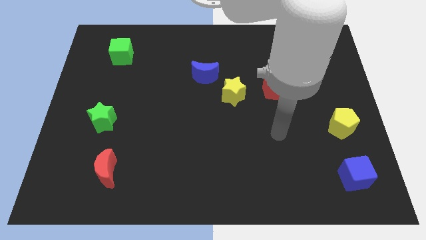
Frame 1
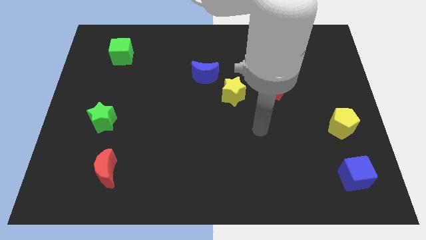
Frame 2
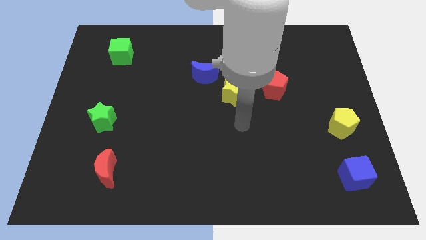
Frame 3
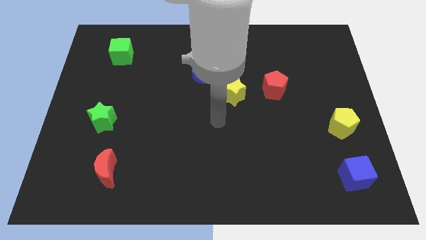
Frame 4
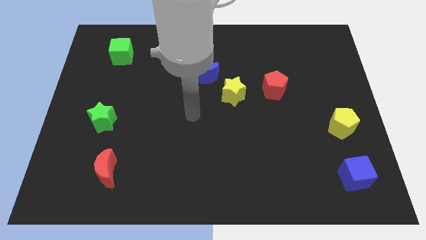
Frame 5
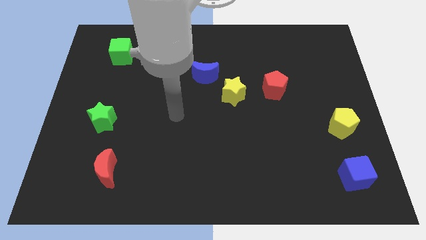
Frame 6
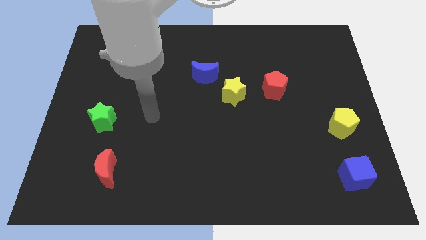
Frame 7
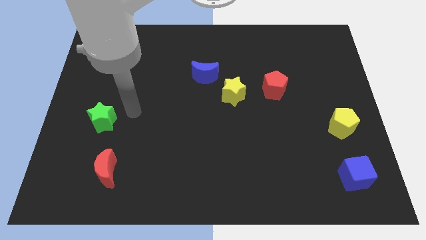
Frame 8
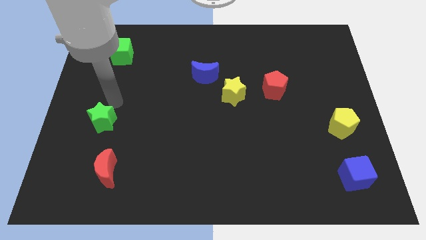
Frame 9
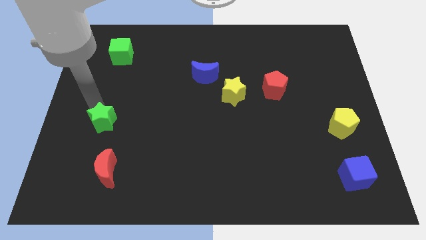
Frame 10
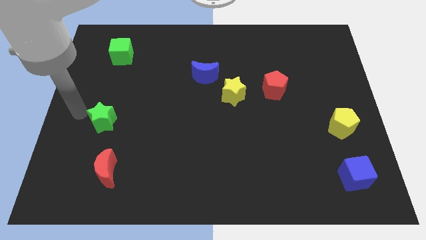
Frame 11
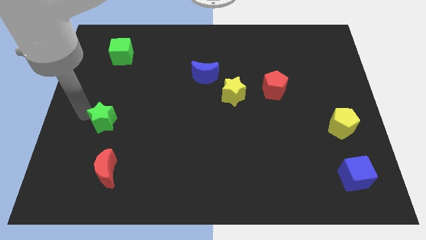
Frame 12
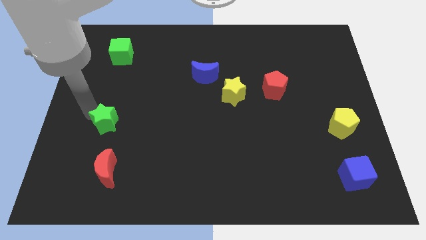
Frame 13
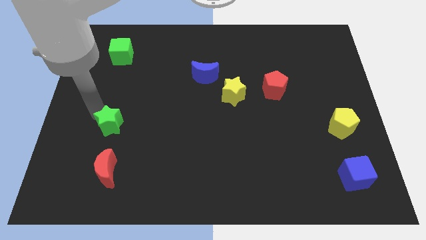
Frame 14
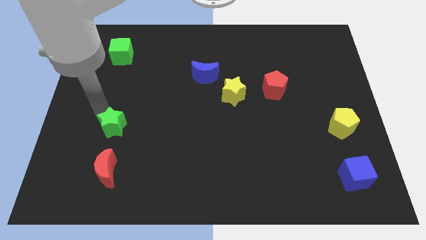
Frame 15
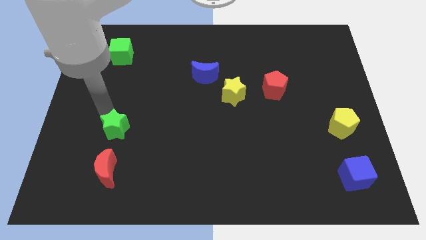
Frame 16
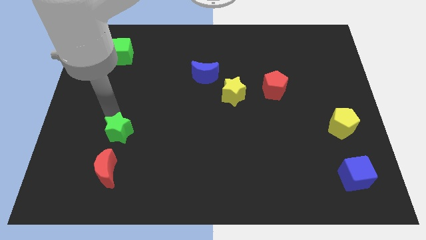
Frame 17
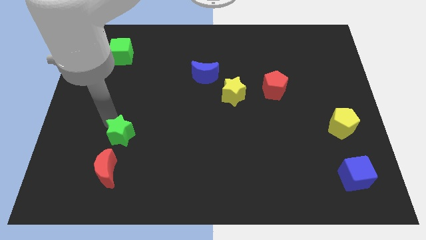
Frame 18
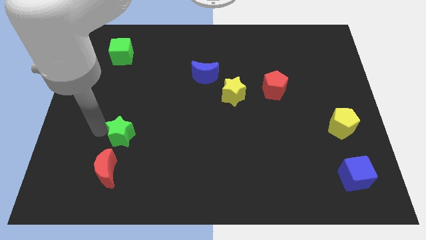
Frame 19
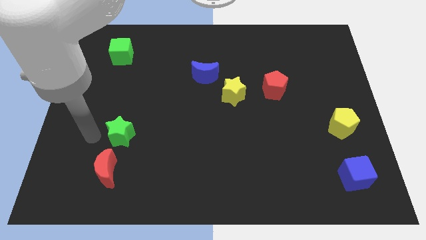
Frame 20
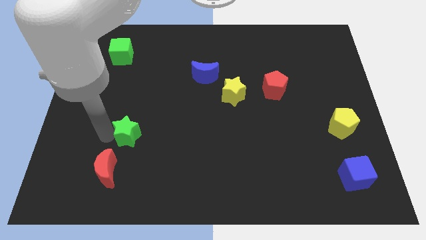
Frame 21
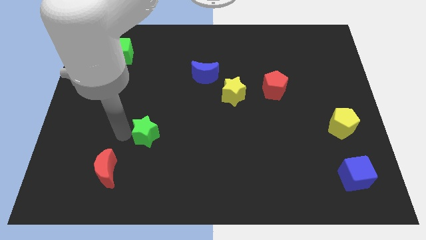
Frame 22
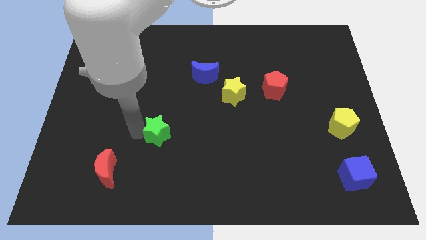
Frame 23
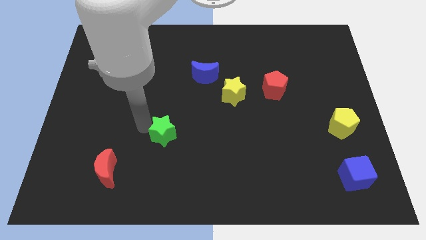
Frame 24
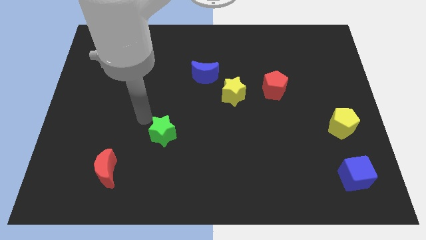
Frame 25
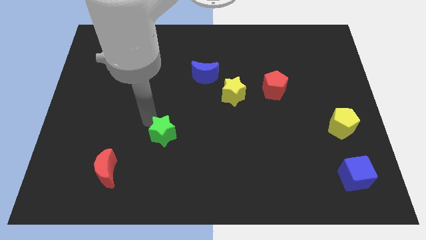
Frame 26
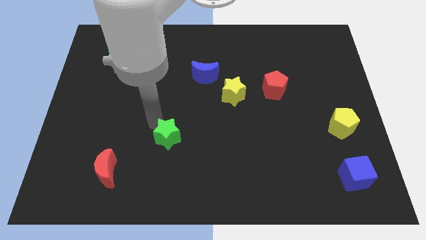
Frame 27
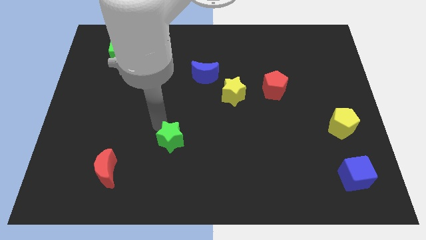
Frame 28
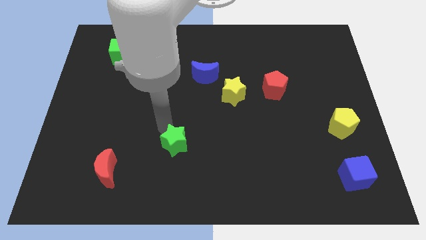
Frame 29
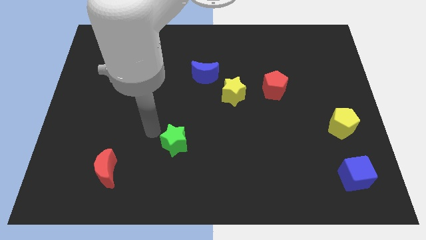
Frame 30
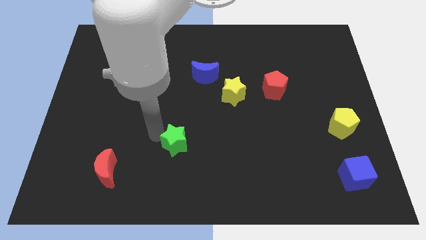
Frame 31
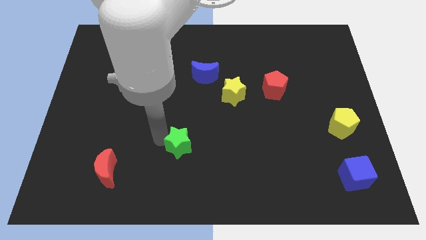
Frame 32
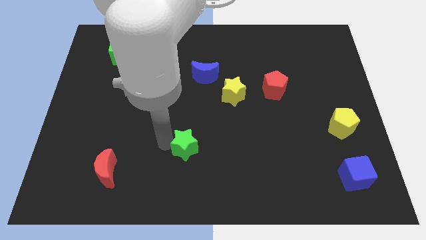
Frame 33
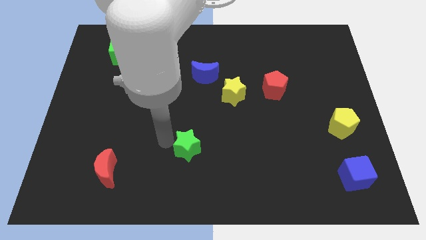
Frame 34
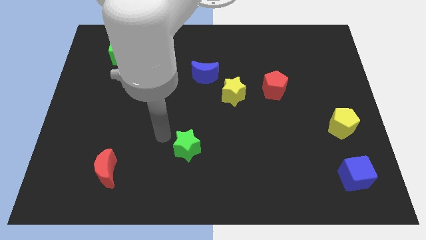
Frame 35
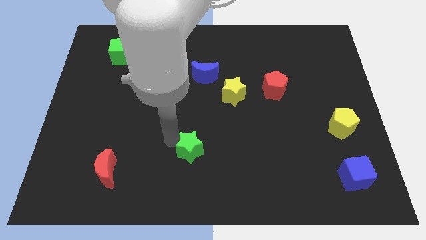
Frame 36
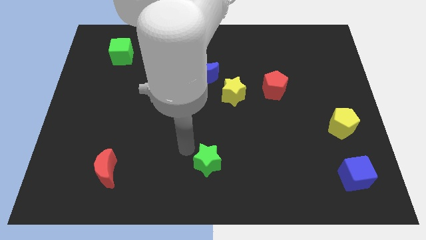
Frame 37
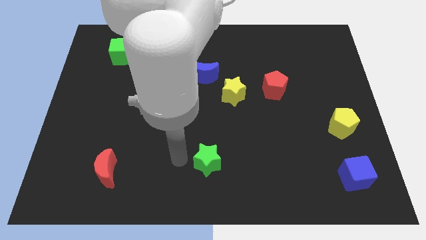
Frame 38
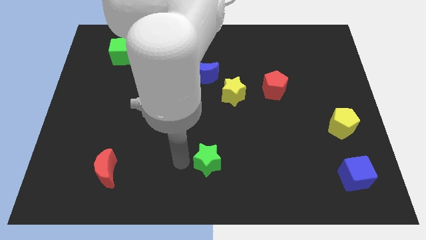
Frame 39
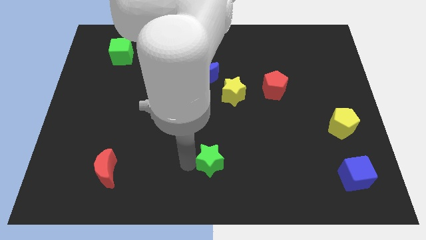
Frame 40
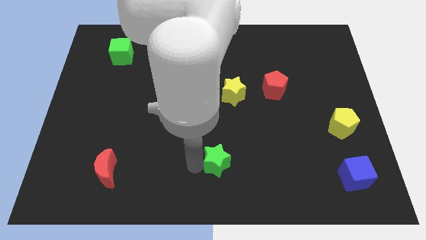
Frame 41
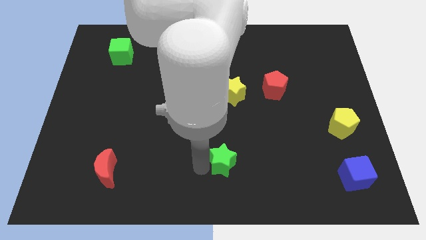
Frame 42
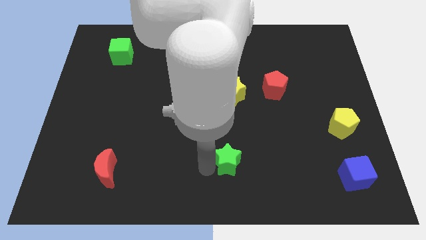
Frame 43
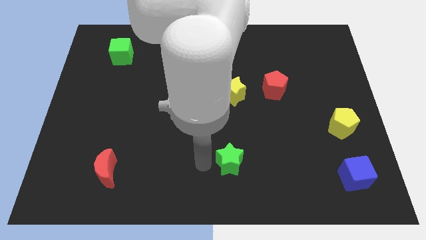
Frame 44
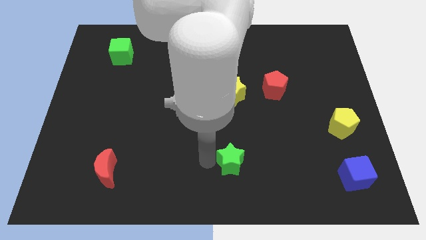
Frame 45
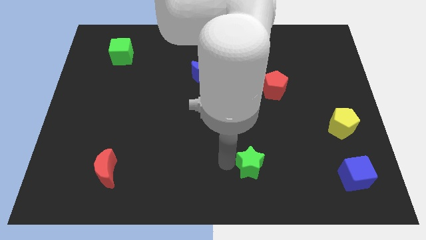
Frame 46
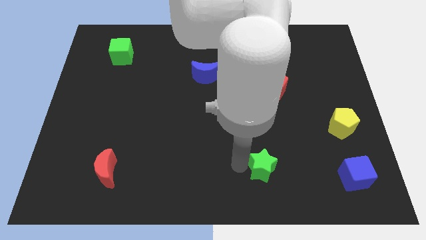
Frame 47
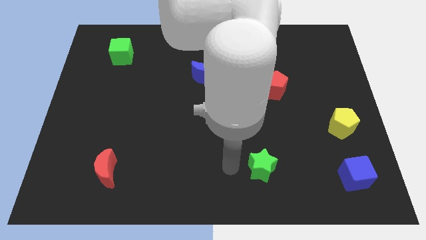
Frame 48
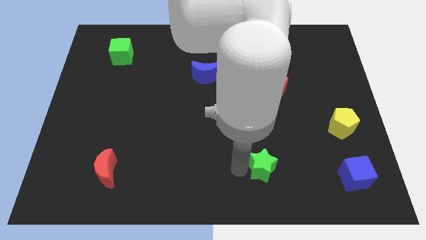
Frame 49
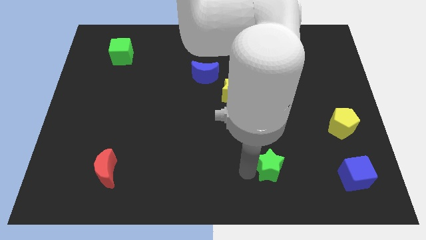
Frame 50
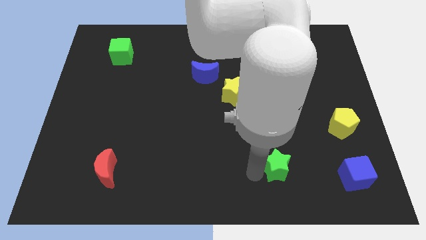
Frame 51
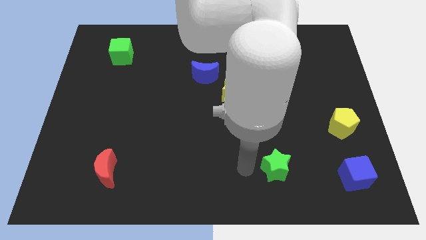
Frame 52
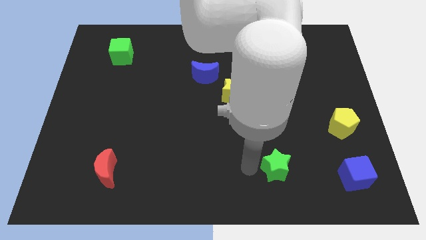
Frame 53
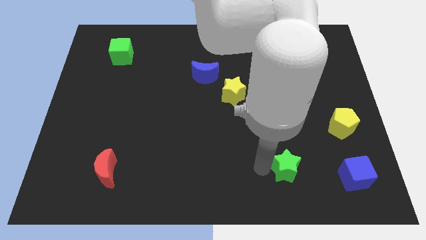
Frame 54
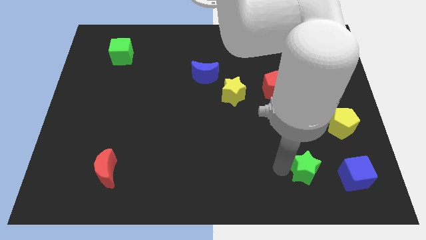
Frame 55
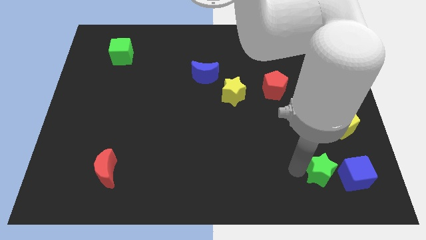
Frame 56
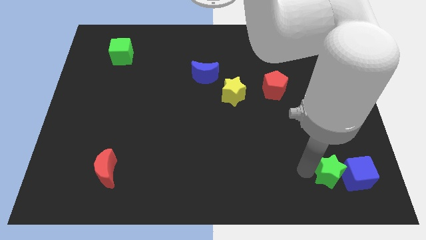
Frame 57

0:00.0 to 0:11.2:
push the green star towards the blue cube
